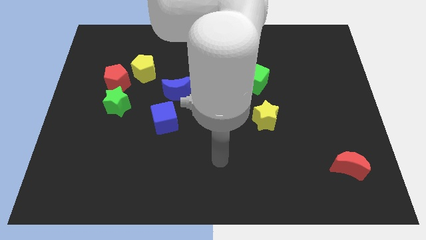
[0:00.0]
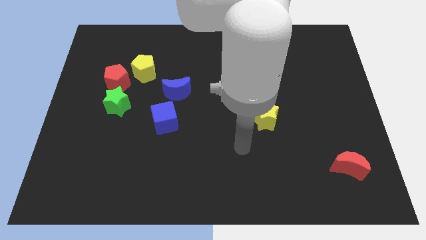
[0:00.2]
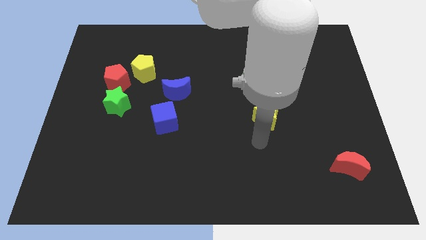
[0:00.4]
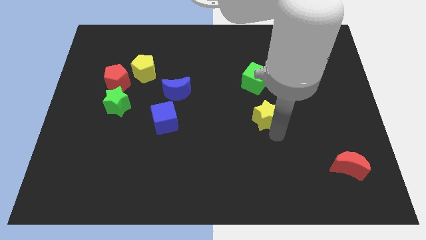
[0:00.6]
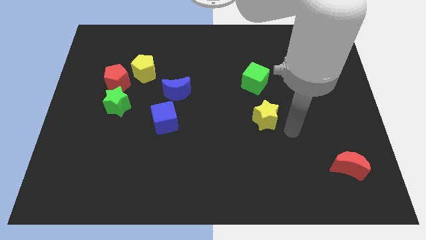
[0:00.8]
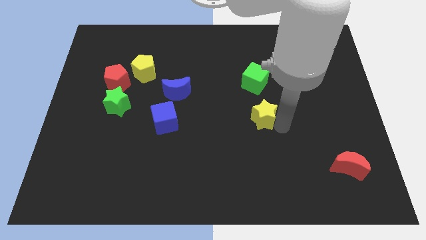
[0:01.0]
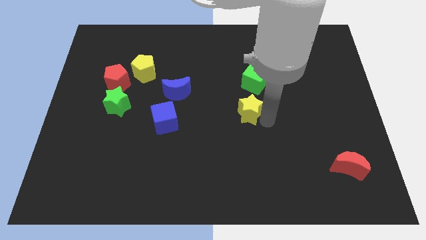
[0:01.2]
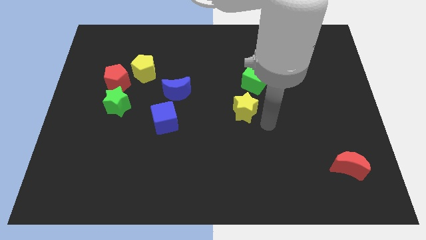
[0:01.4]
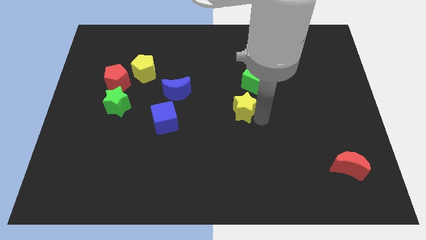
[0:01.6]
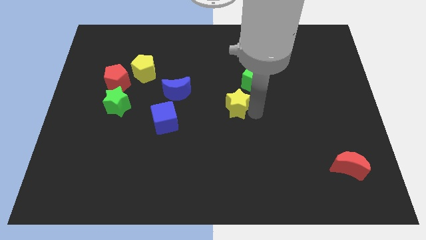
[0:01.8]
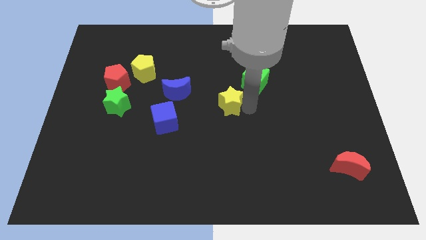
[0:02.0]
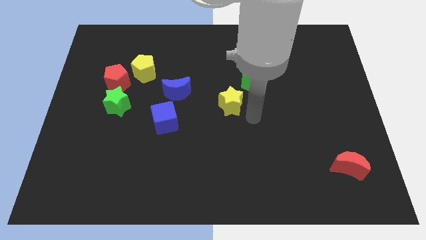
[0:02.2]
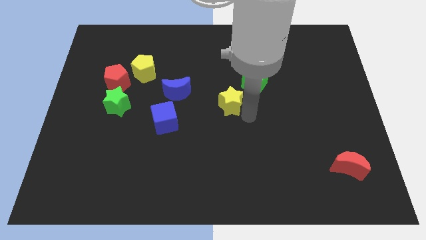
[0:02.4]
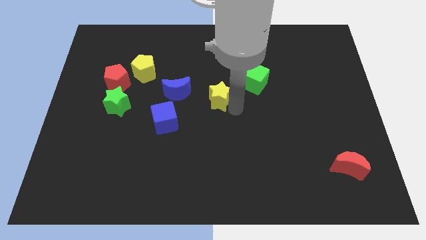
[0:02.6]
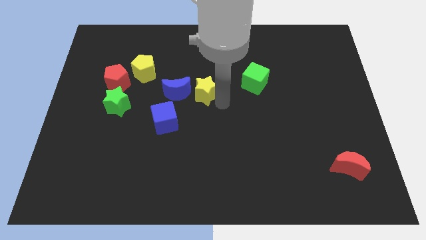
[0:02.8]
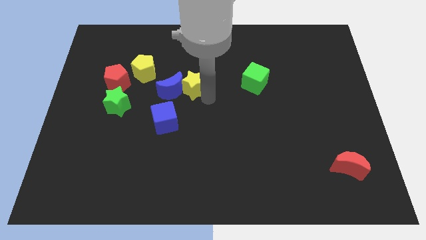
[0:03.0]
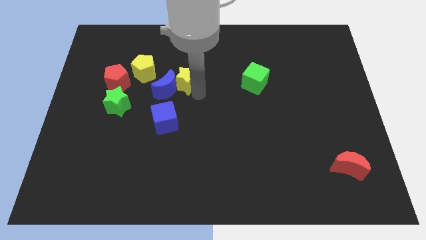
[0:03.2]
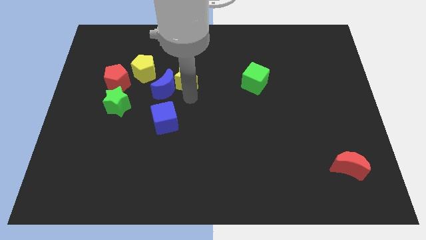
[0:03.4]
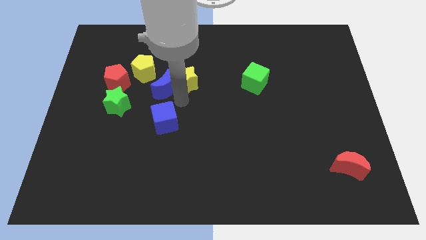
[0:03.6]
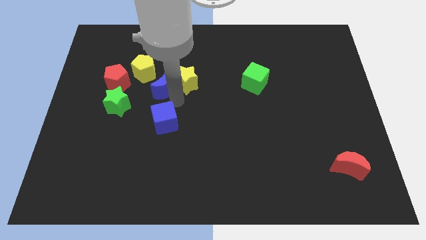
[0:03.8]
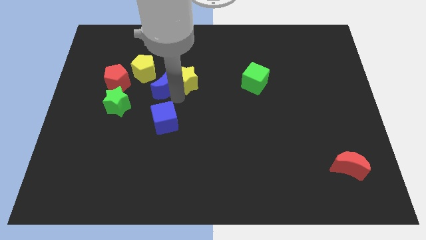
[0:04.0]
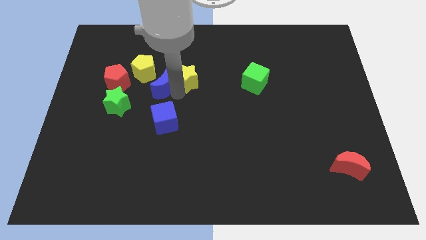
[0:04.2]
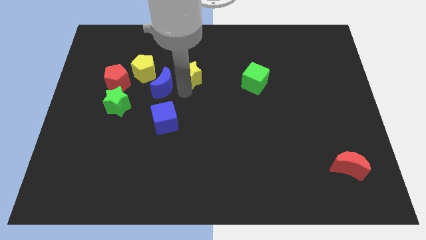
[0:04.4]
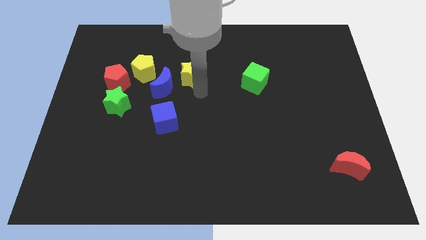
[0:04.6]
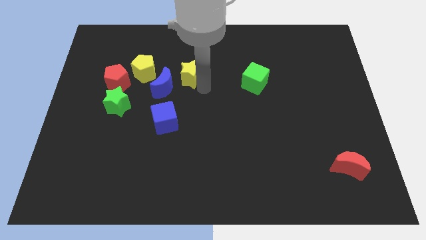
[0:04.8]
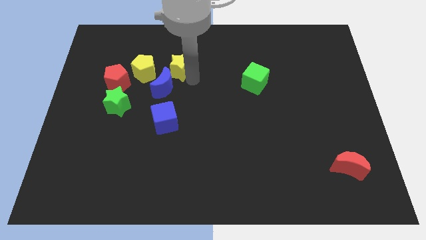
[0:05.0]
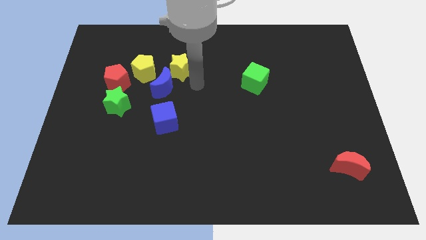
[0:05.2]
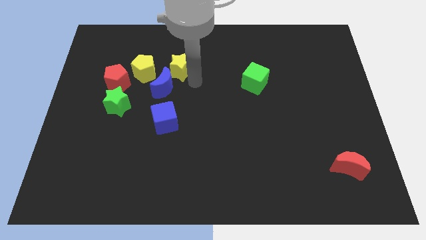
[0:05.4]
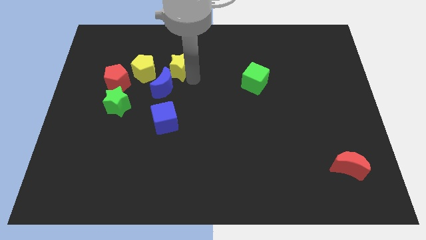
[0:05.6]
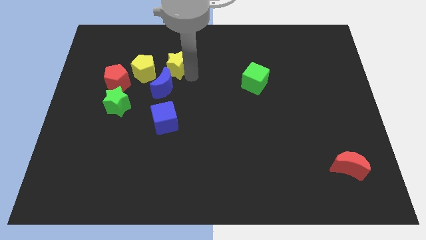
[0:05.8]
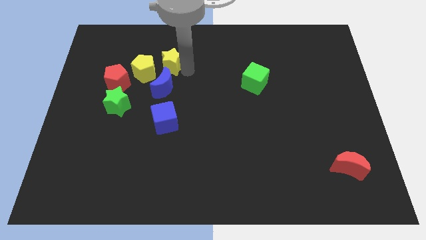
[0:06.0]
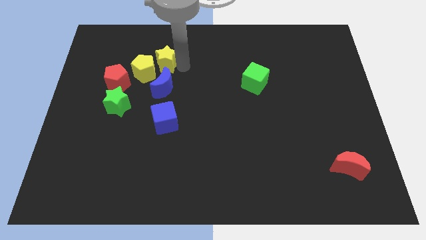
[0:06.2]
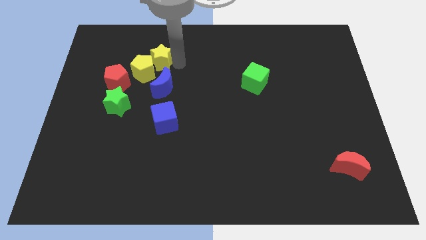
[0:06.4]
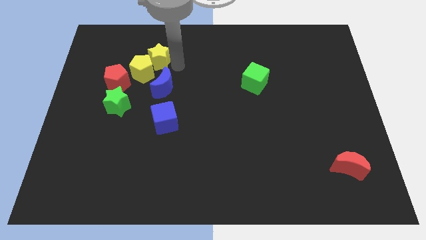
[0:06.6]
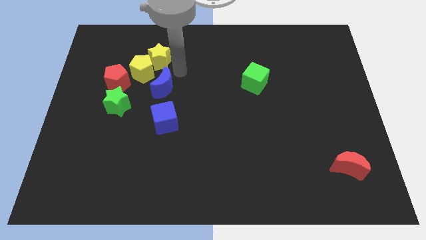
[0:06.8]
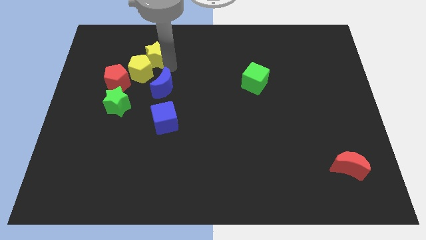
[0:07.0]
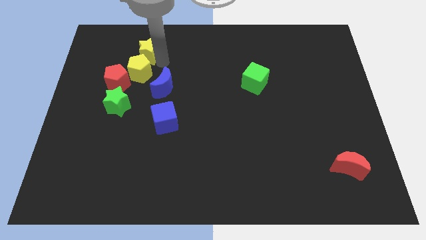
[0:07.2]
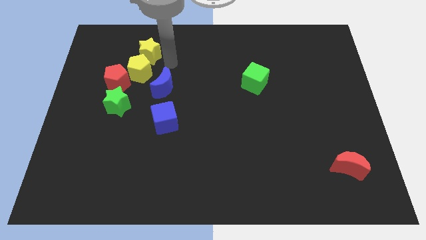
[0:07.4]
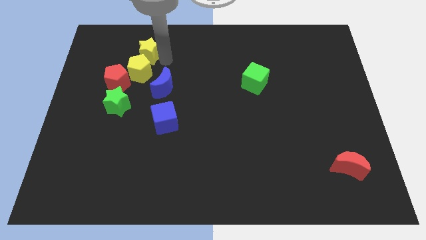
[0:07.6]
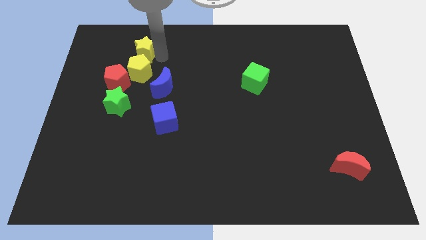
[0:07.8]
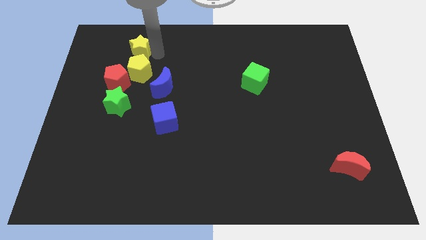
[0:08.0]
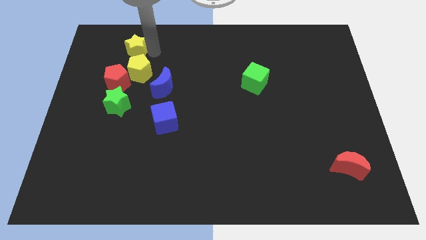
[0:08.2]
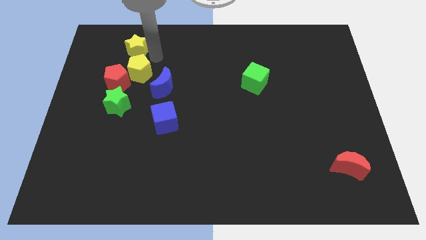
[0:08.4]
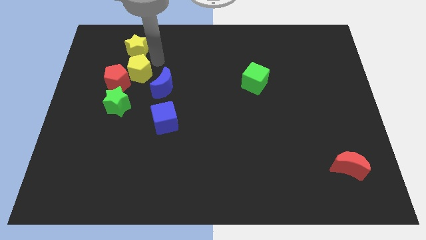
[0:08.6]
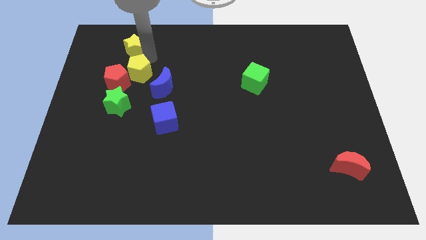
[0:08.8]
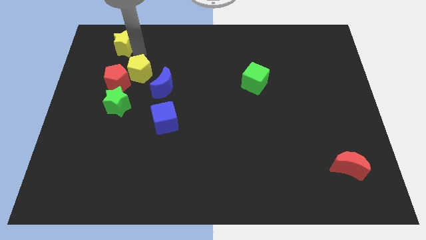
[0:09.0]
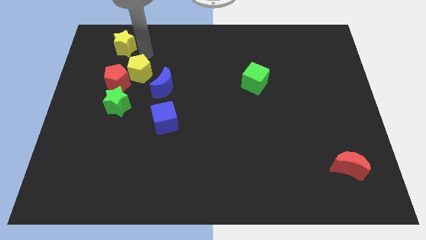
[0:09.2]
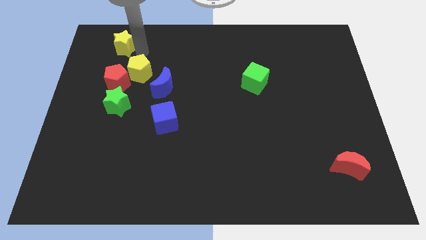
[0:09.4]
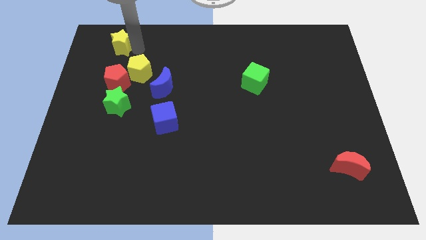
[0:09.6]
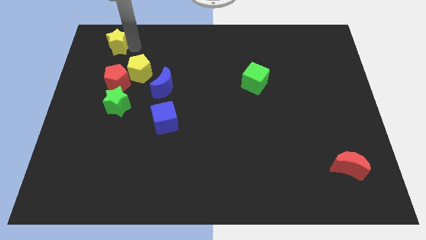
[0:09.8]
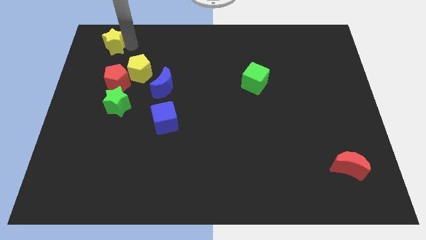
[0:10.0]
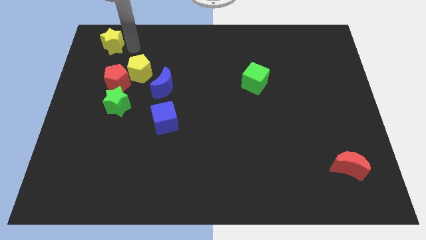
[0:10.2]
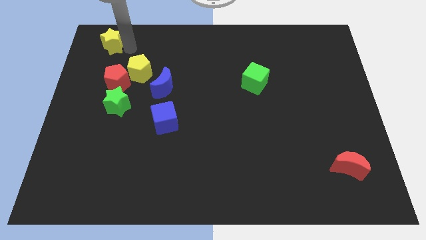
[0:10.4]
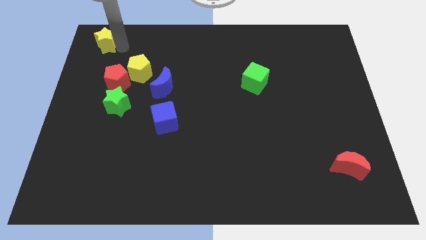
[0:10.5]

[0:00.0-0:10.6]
slide the yellow star to the top left of the board

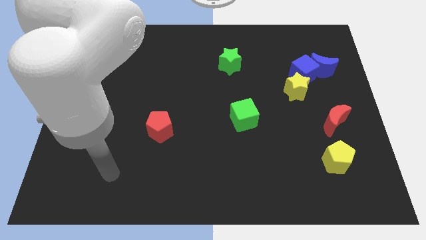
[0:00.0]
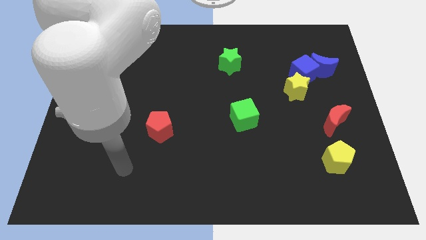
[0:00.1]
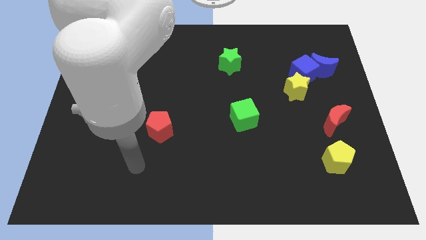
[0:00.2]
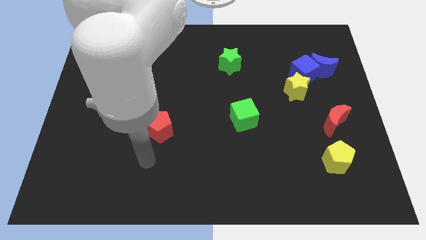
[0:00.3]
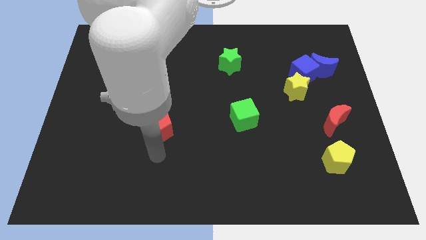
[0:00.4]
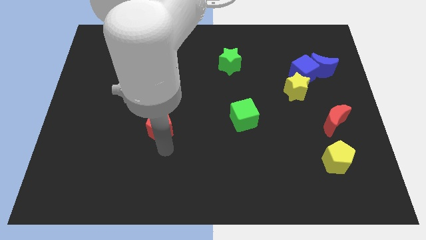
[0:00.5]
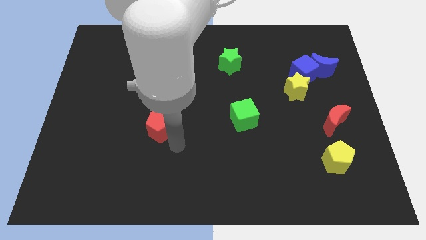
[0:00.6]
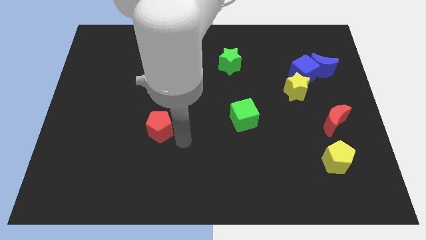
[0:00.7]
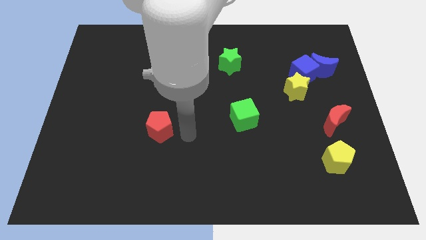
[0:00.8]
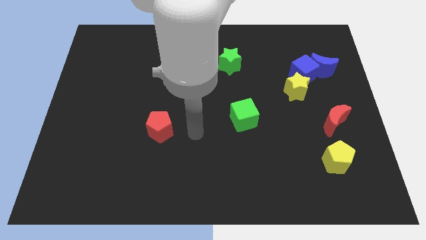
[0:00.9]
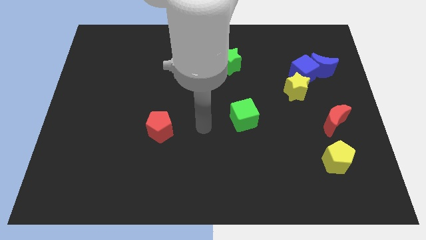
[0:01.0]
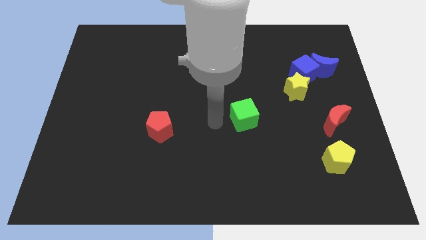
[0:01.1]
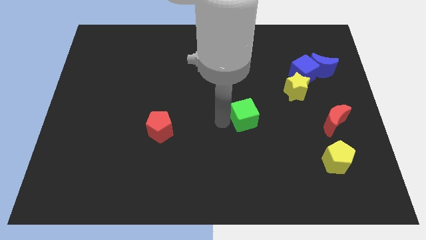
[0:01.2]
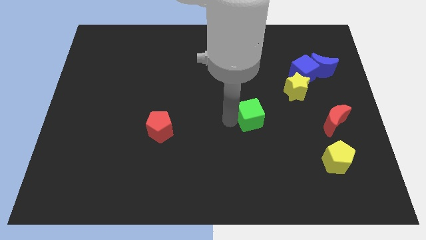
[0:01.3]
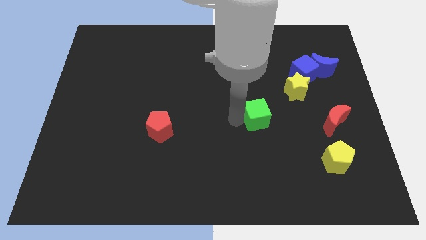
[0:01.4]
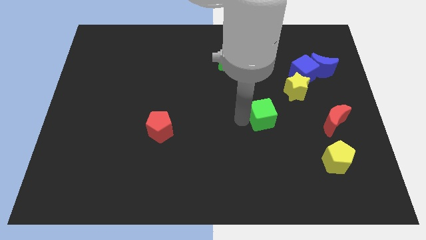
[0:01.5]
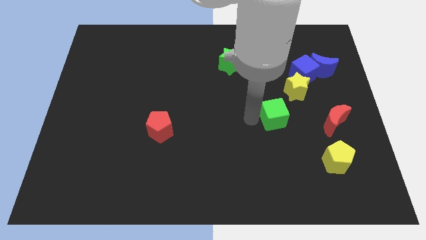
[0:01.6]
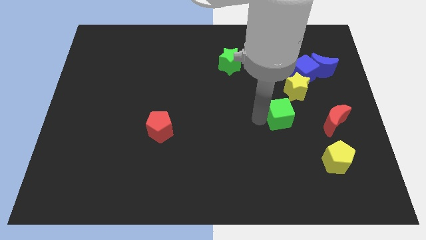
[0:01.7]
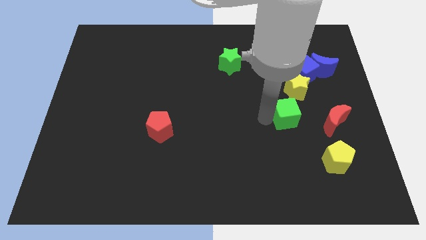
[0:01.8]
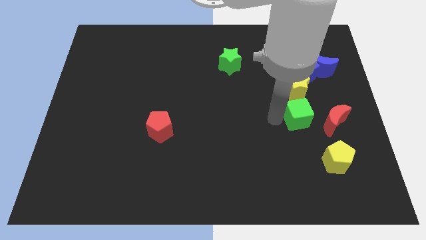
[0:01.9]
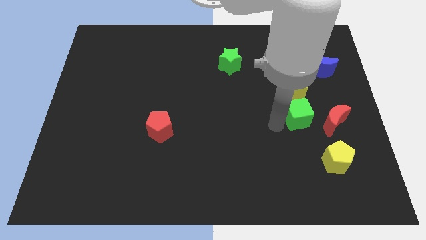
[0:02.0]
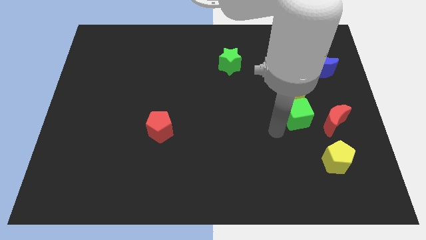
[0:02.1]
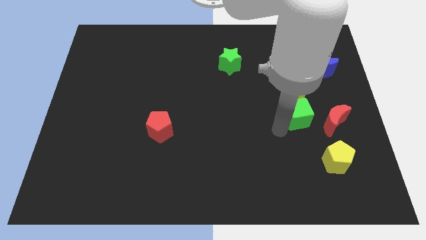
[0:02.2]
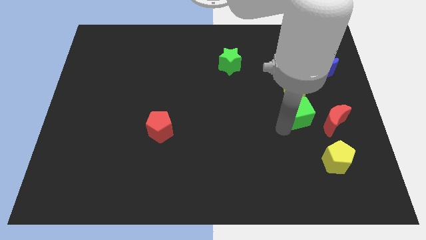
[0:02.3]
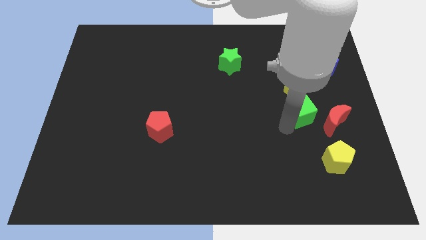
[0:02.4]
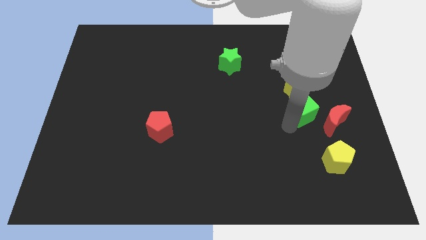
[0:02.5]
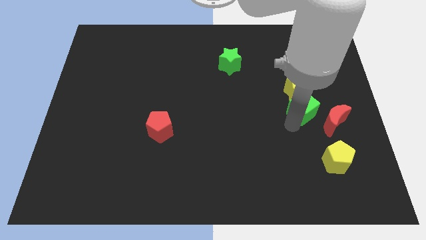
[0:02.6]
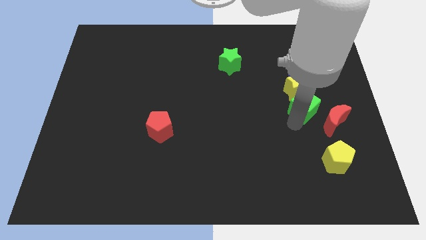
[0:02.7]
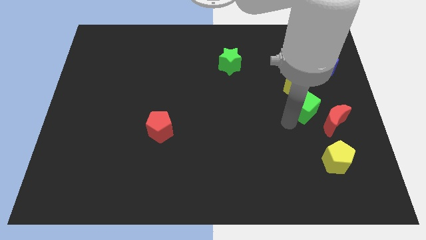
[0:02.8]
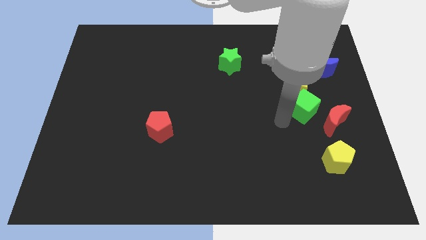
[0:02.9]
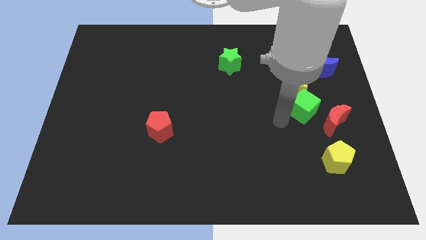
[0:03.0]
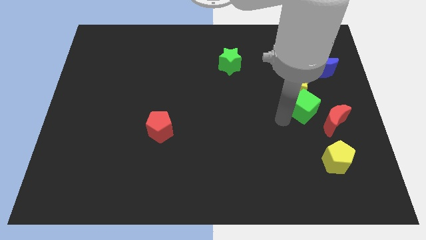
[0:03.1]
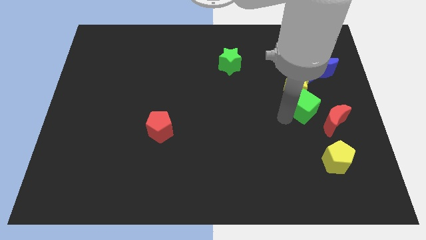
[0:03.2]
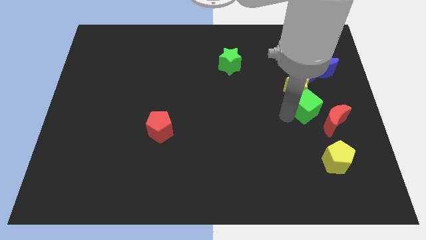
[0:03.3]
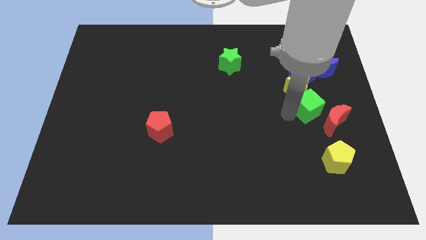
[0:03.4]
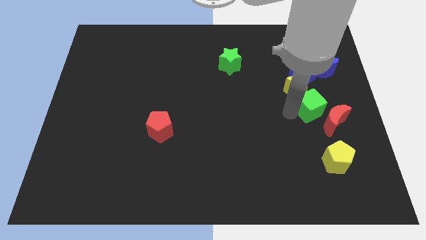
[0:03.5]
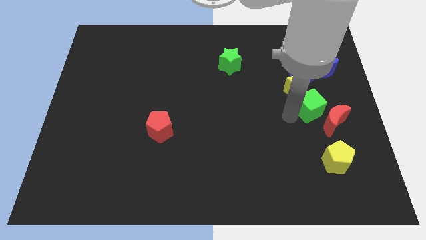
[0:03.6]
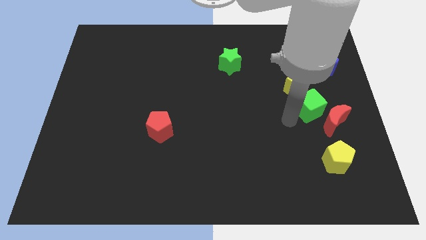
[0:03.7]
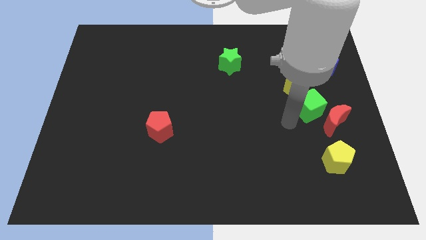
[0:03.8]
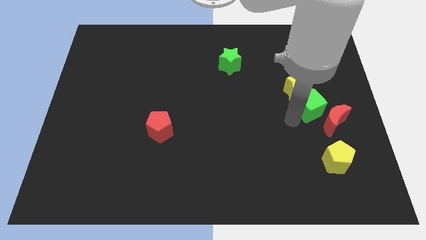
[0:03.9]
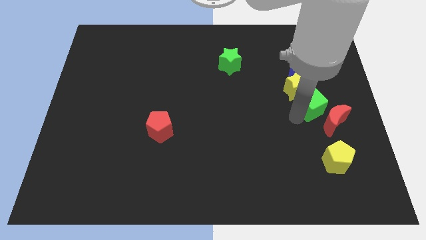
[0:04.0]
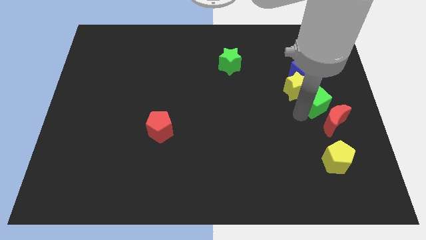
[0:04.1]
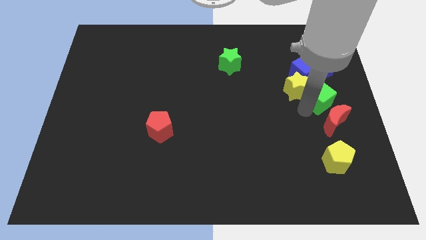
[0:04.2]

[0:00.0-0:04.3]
push the green cube to the right side
